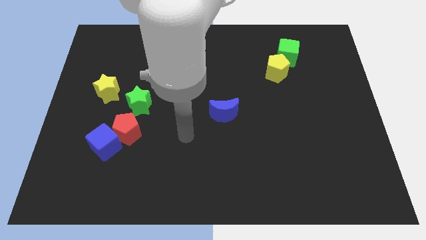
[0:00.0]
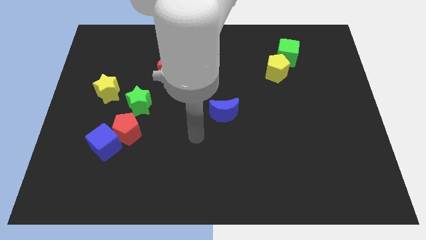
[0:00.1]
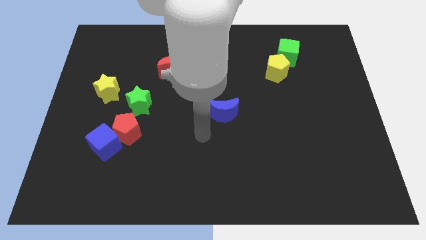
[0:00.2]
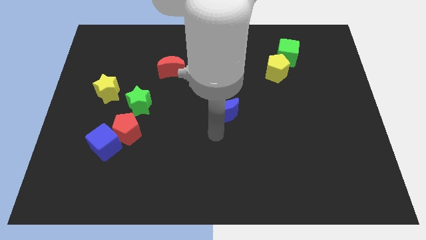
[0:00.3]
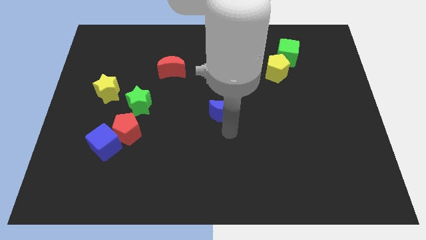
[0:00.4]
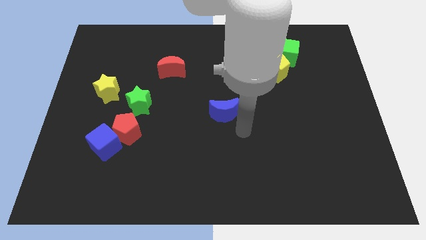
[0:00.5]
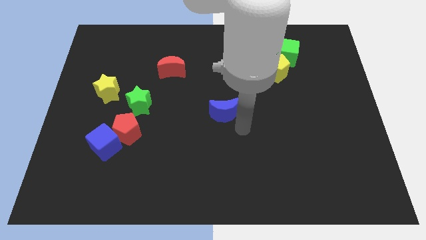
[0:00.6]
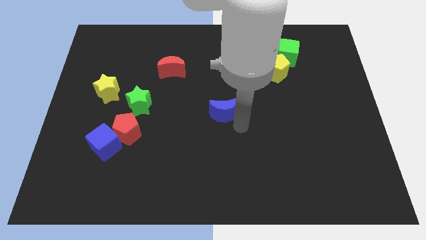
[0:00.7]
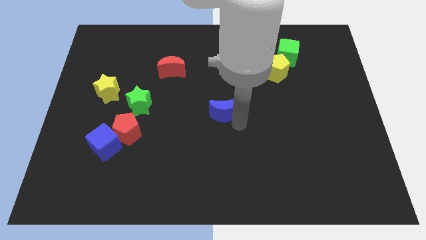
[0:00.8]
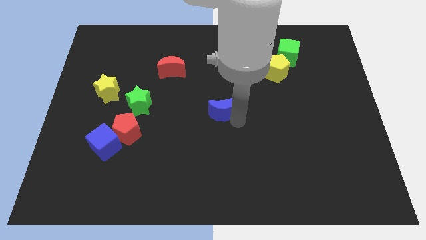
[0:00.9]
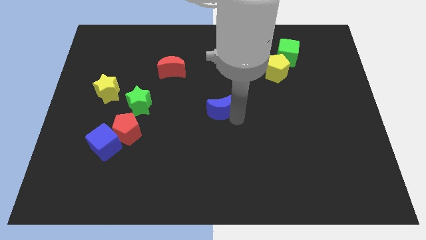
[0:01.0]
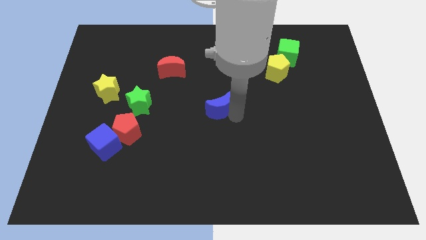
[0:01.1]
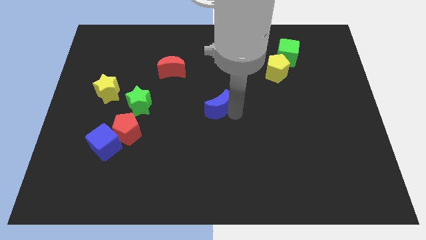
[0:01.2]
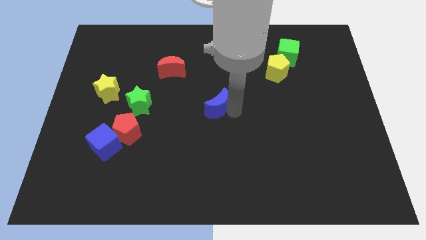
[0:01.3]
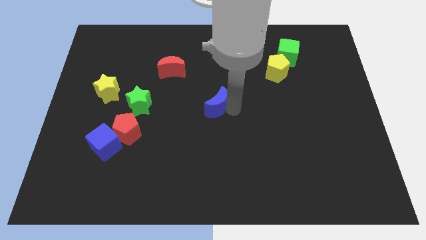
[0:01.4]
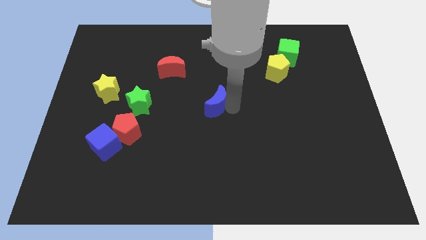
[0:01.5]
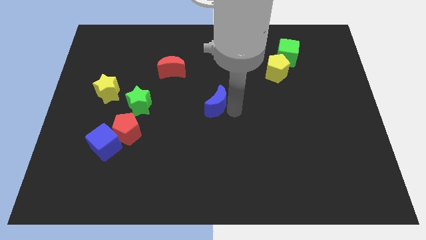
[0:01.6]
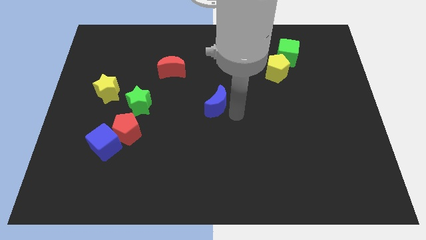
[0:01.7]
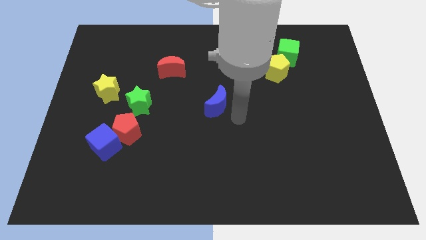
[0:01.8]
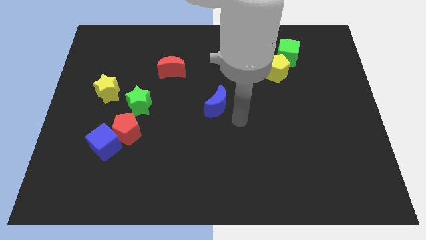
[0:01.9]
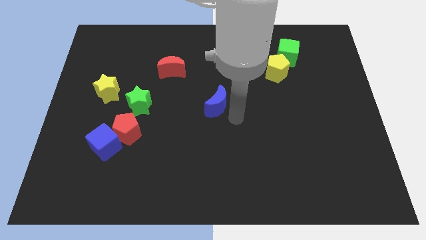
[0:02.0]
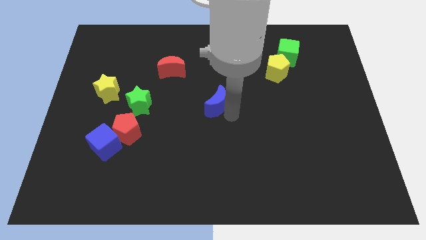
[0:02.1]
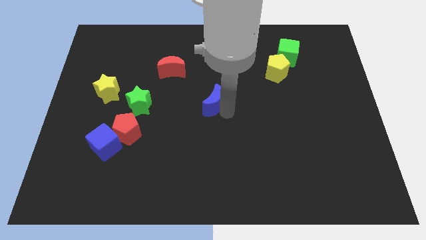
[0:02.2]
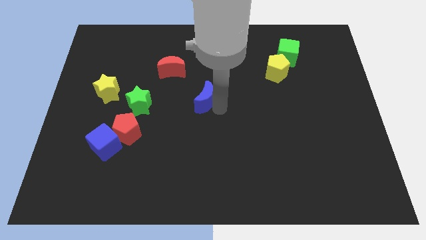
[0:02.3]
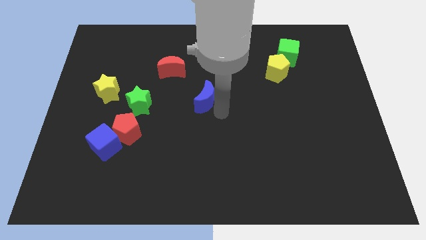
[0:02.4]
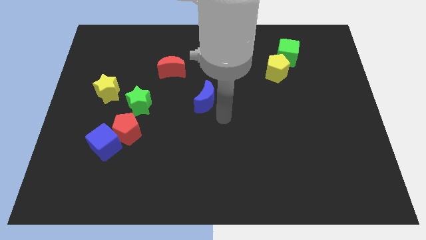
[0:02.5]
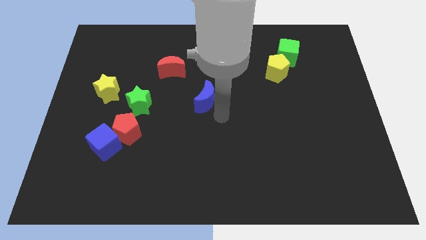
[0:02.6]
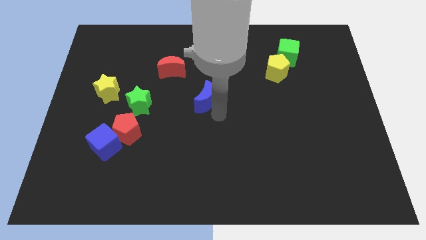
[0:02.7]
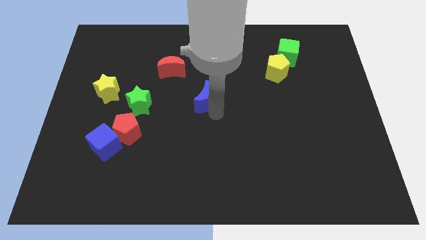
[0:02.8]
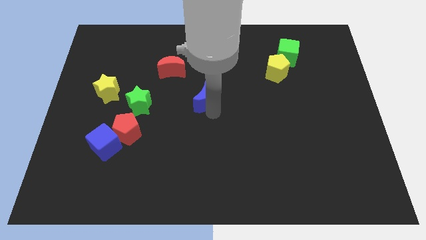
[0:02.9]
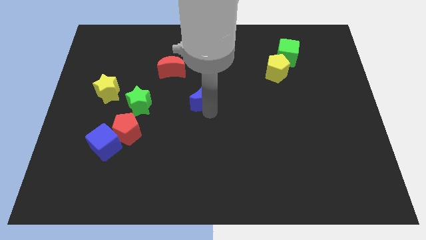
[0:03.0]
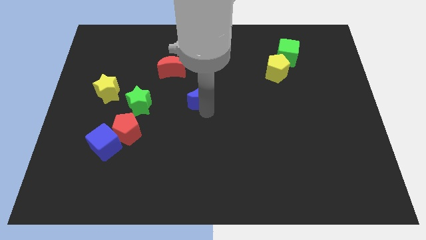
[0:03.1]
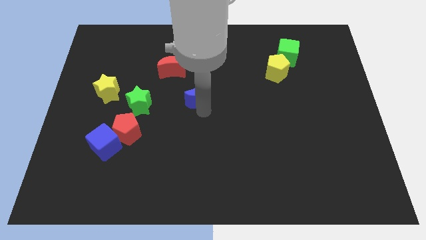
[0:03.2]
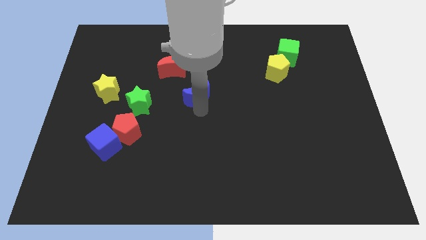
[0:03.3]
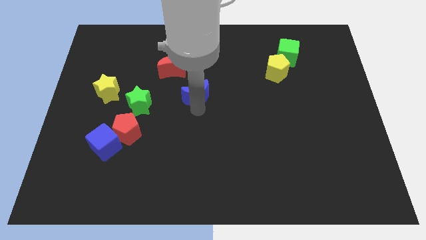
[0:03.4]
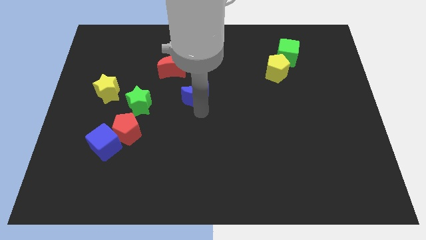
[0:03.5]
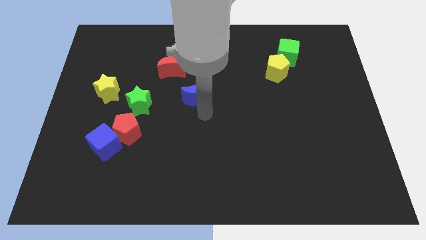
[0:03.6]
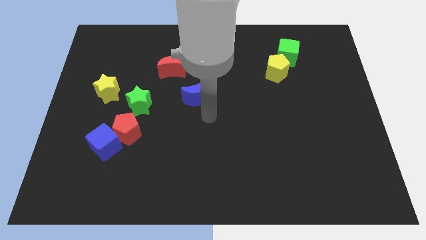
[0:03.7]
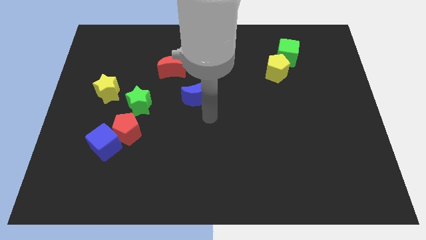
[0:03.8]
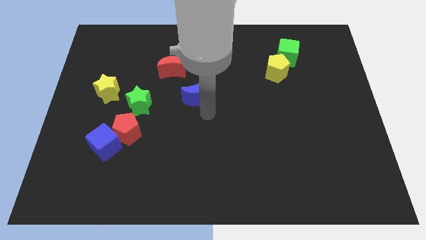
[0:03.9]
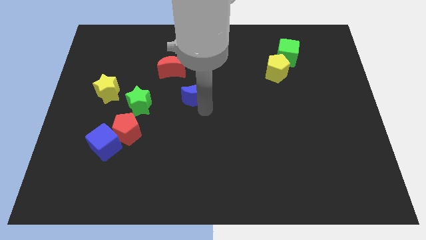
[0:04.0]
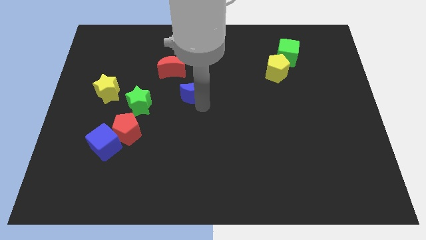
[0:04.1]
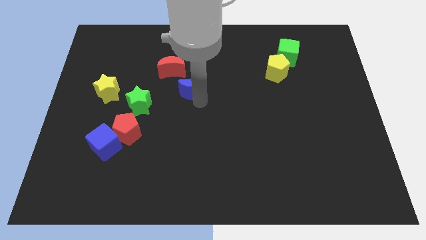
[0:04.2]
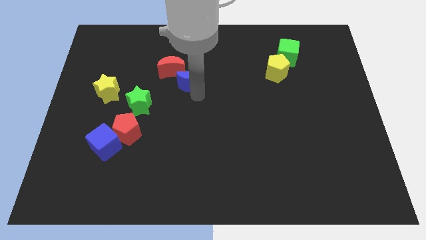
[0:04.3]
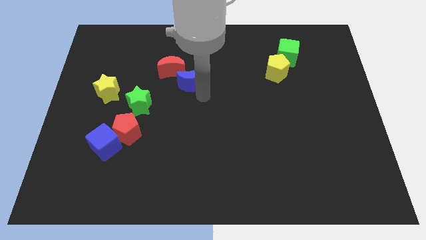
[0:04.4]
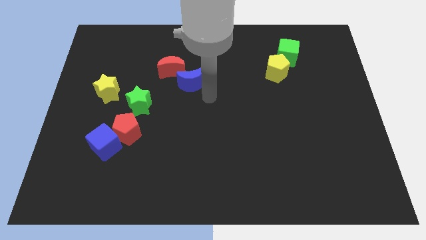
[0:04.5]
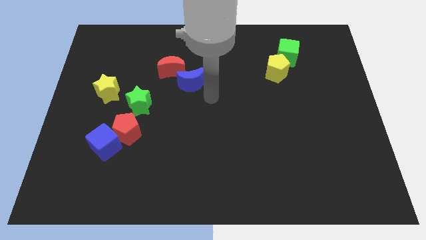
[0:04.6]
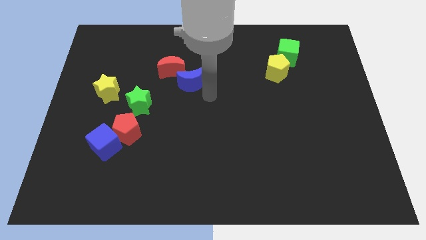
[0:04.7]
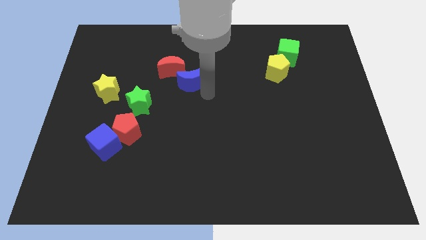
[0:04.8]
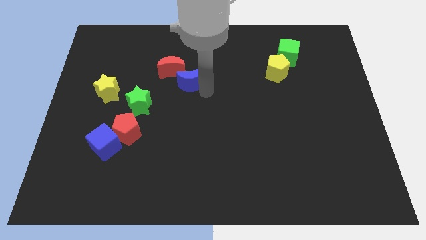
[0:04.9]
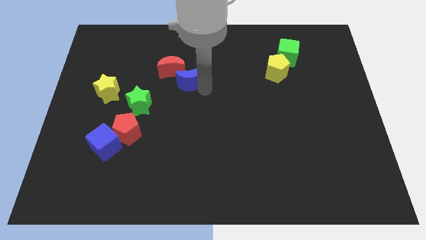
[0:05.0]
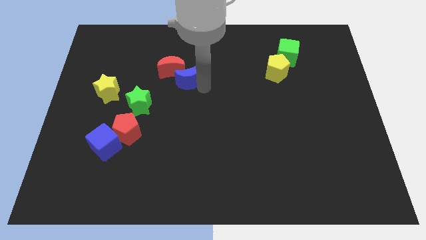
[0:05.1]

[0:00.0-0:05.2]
slide the blue moon close to the red moon

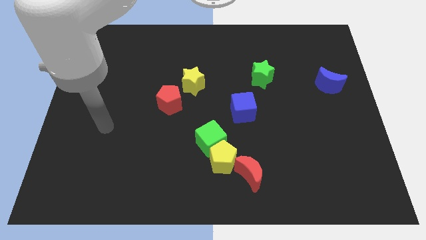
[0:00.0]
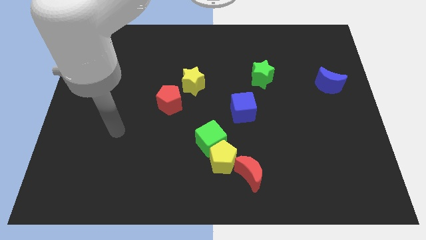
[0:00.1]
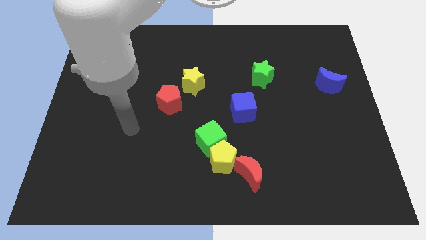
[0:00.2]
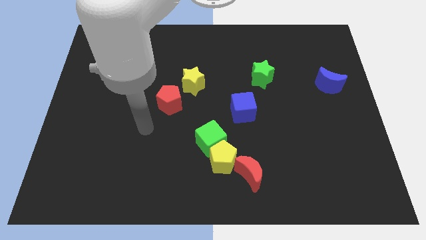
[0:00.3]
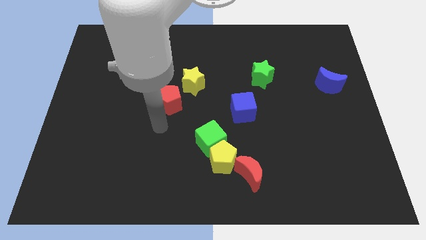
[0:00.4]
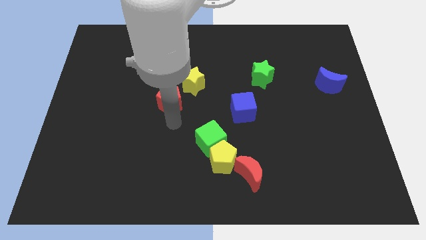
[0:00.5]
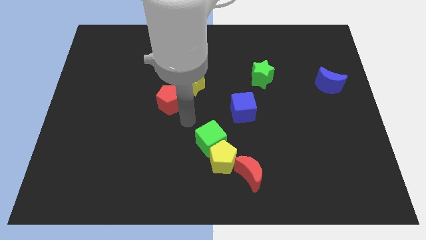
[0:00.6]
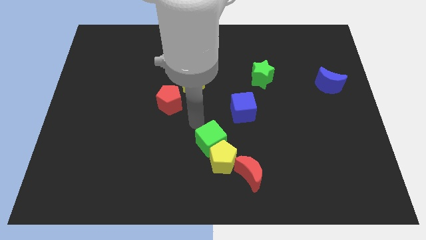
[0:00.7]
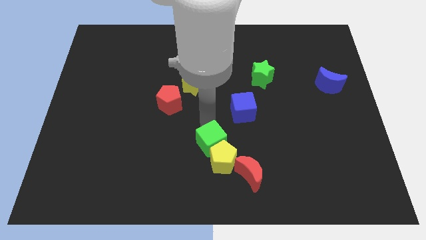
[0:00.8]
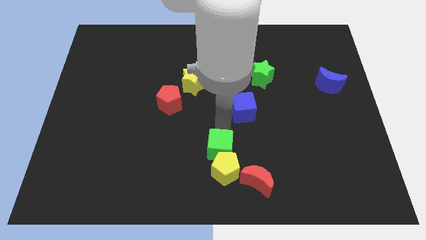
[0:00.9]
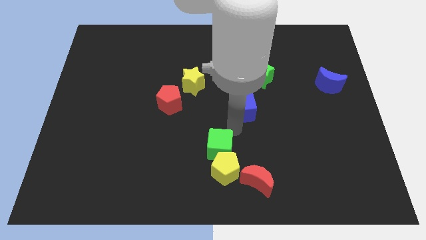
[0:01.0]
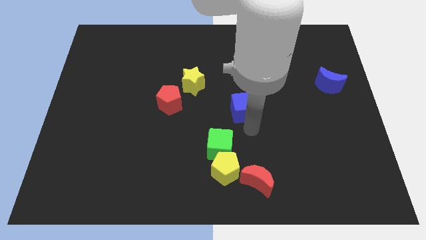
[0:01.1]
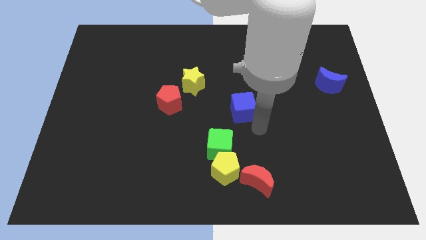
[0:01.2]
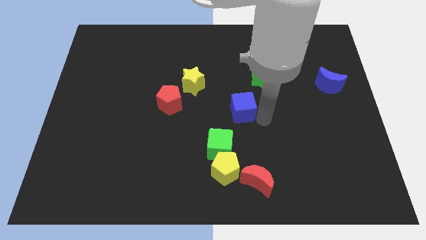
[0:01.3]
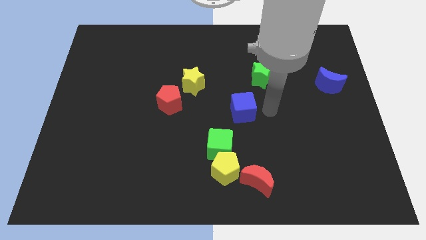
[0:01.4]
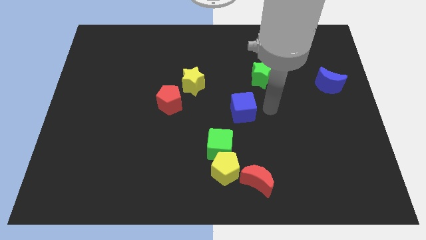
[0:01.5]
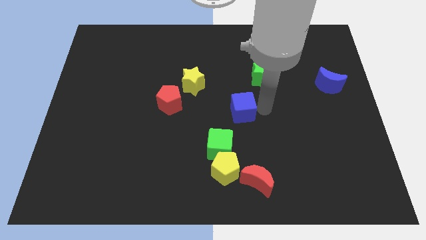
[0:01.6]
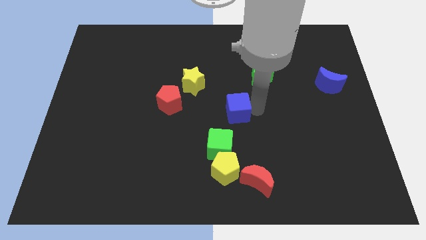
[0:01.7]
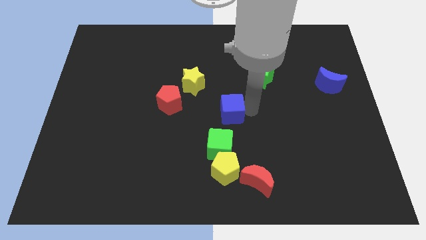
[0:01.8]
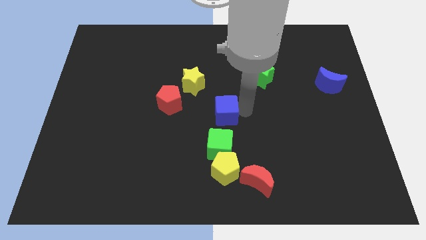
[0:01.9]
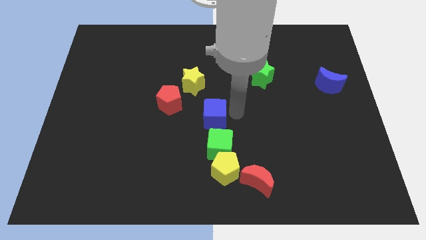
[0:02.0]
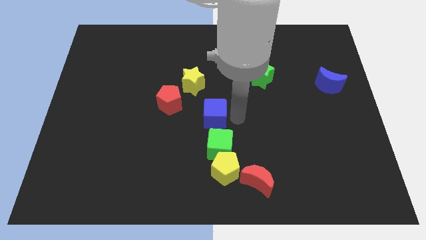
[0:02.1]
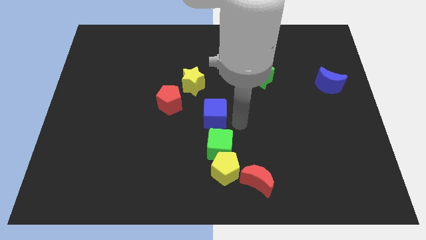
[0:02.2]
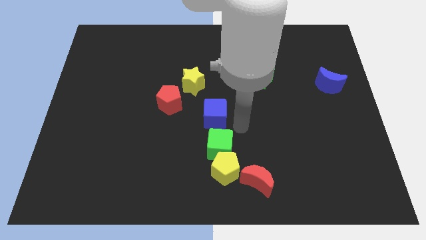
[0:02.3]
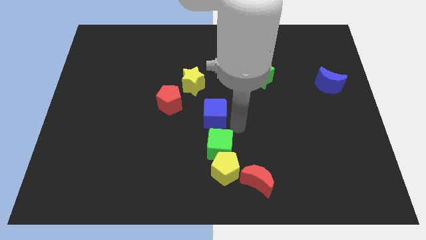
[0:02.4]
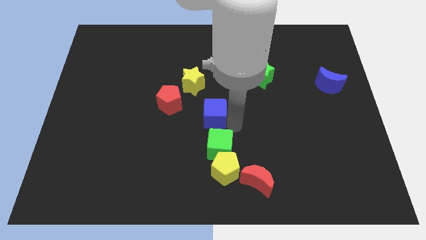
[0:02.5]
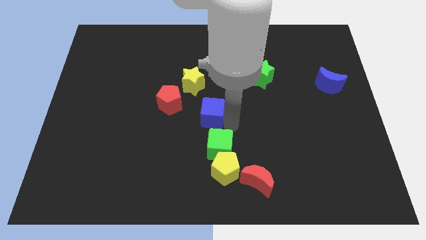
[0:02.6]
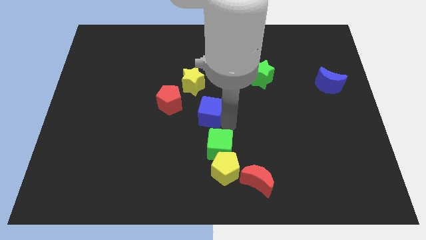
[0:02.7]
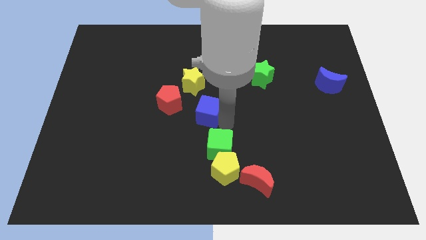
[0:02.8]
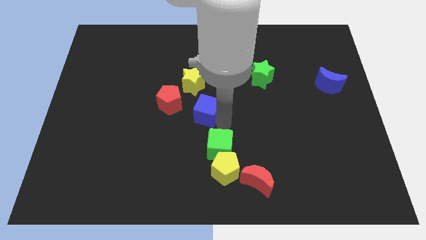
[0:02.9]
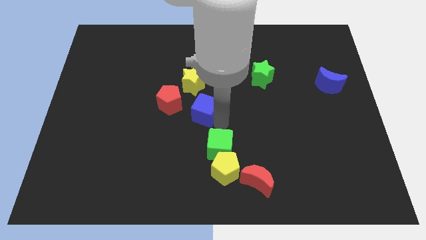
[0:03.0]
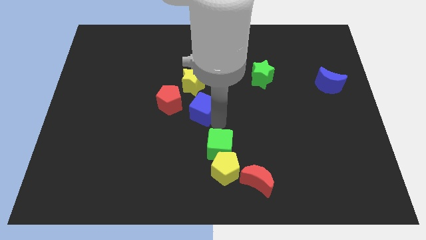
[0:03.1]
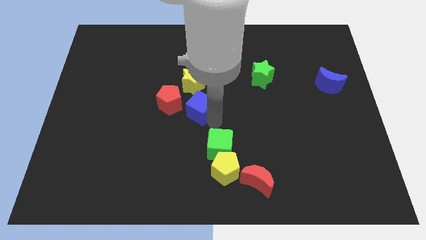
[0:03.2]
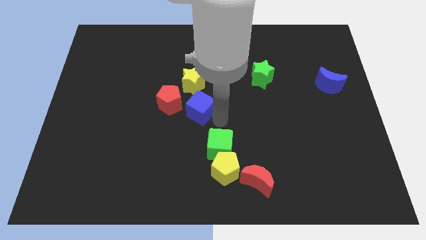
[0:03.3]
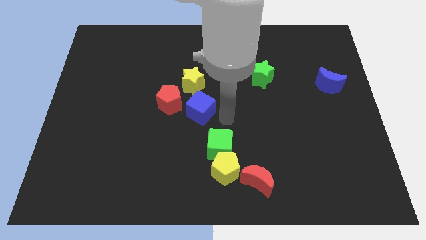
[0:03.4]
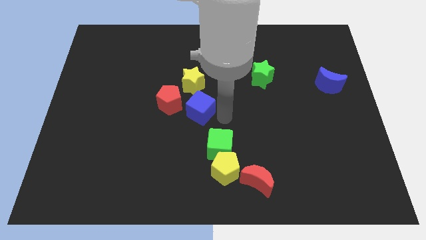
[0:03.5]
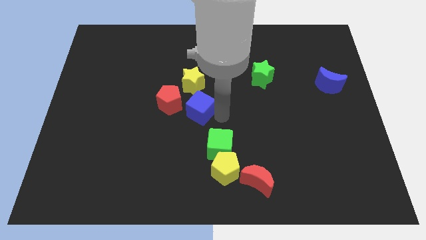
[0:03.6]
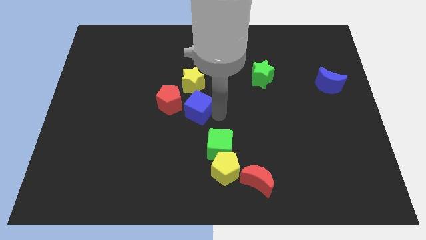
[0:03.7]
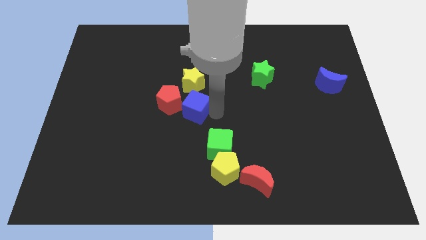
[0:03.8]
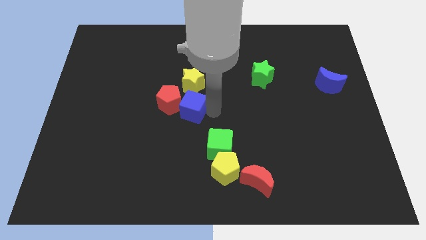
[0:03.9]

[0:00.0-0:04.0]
put the blue cube next to the red pentagon
